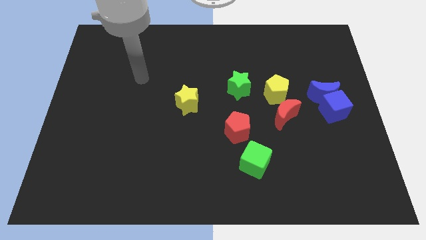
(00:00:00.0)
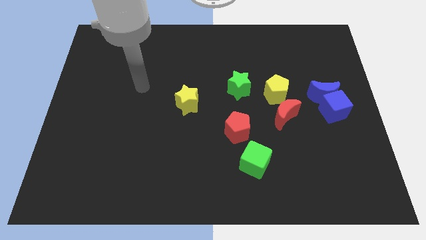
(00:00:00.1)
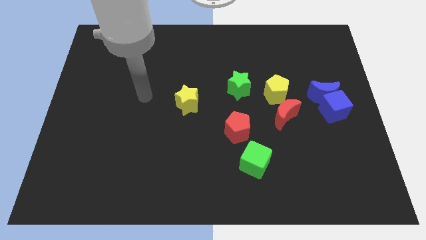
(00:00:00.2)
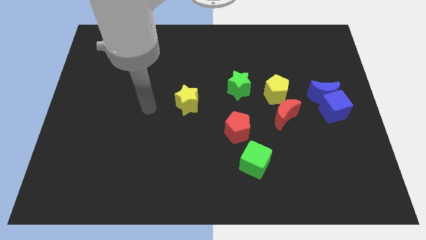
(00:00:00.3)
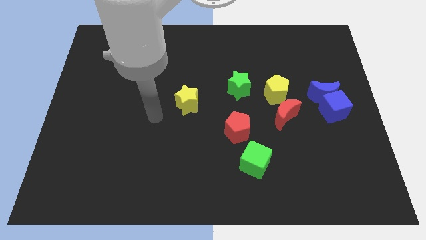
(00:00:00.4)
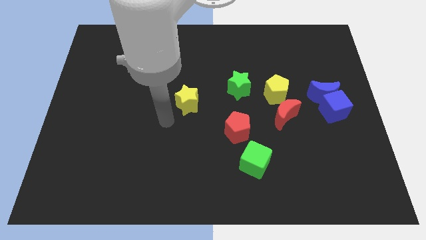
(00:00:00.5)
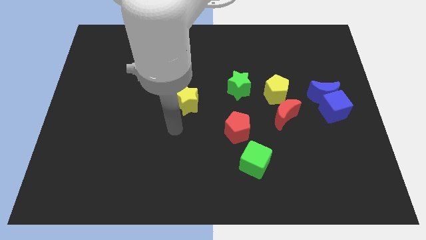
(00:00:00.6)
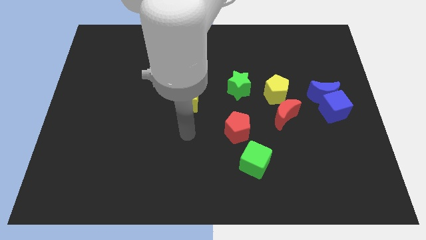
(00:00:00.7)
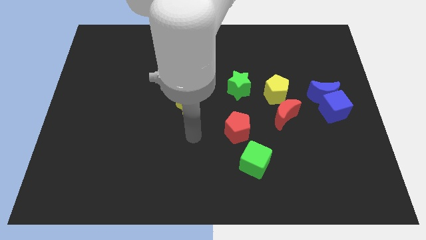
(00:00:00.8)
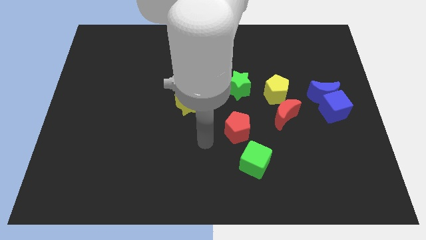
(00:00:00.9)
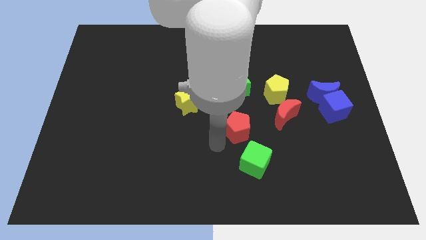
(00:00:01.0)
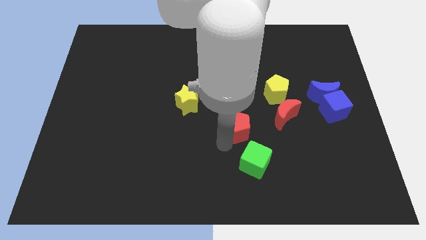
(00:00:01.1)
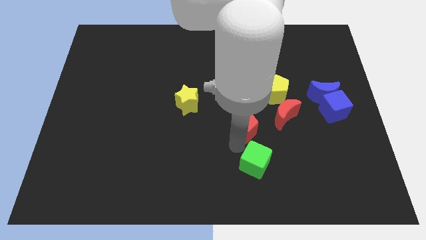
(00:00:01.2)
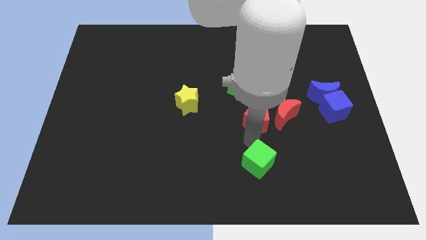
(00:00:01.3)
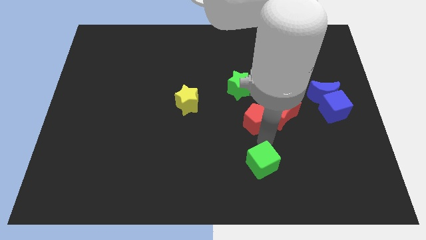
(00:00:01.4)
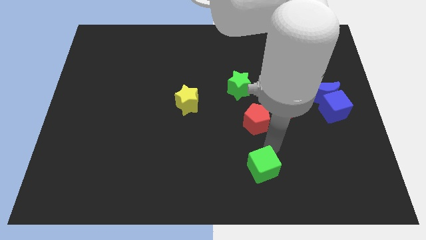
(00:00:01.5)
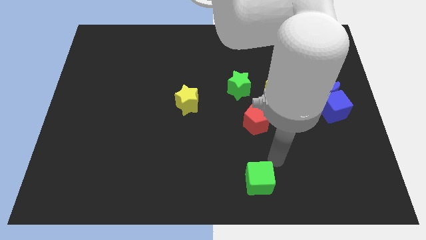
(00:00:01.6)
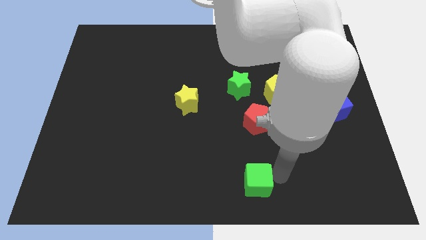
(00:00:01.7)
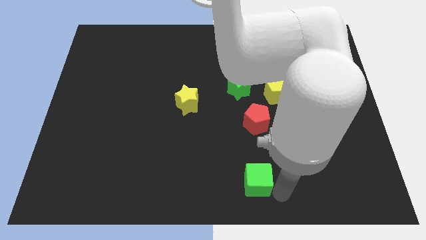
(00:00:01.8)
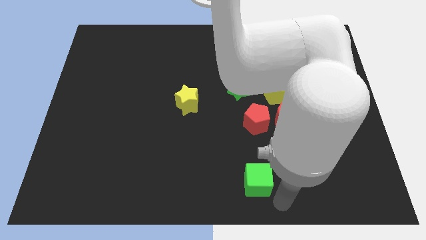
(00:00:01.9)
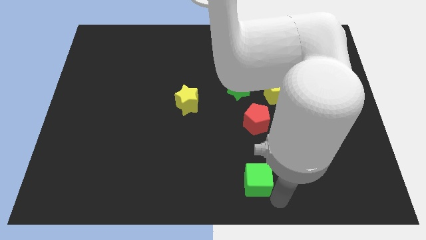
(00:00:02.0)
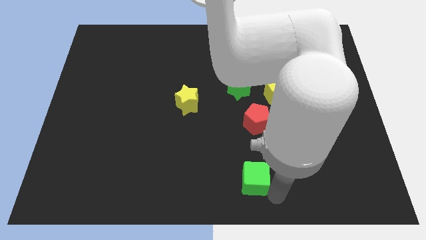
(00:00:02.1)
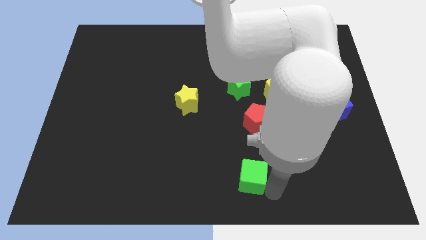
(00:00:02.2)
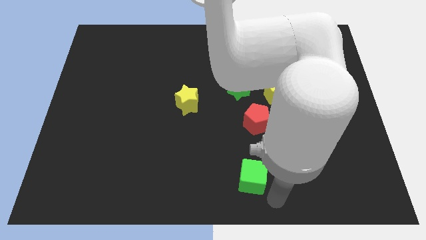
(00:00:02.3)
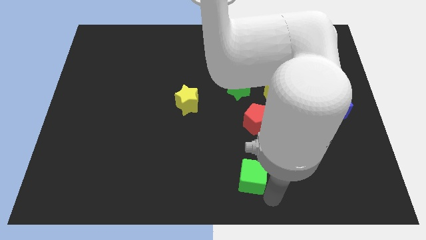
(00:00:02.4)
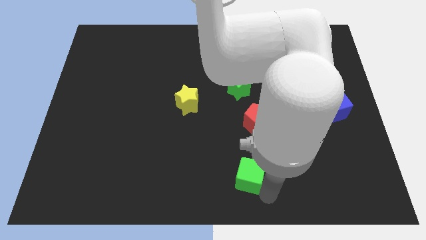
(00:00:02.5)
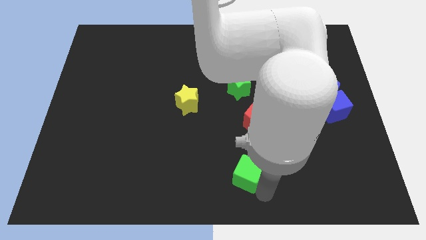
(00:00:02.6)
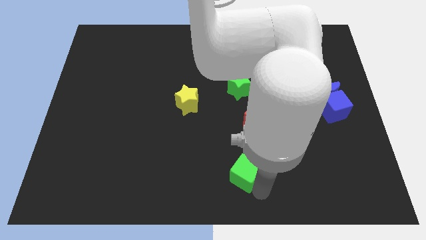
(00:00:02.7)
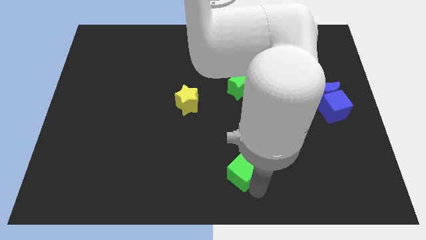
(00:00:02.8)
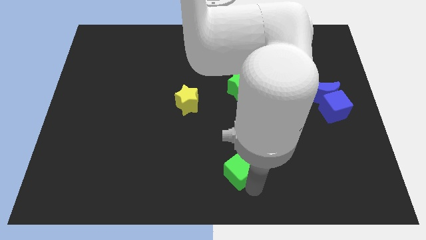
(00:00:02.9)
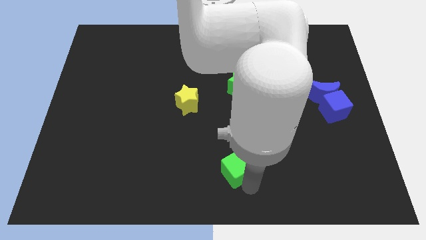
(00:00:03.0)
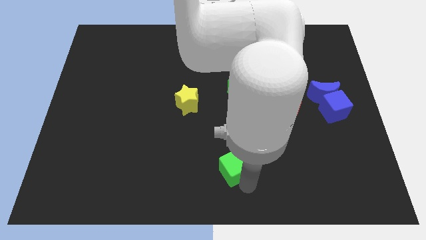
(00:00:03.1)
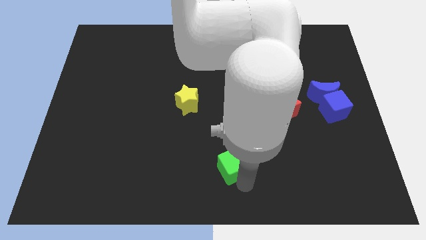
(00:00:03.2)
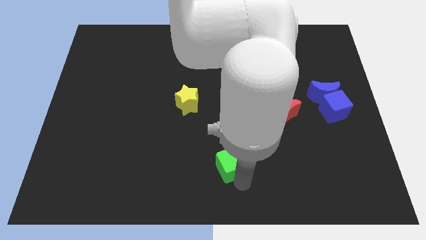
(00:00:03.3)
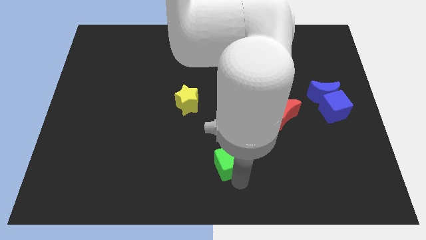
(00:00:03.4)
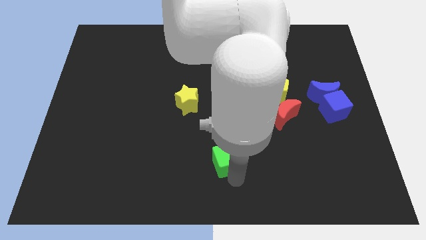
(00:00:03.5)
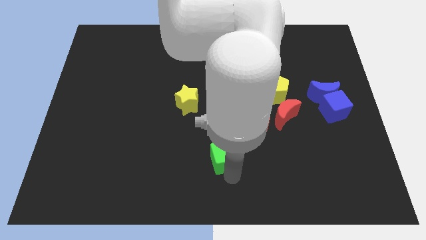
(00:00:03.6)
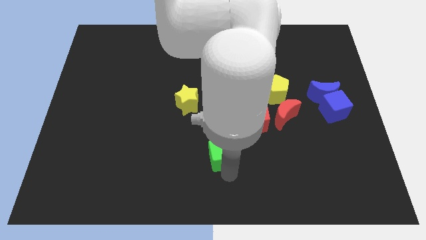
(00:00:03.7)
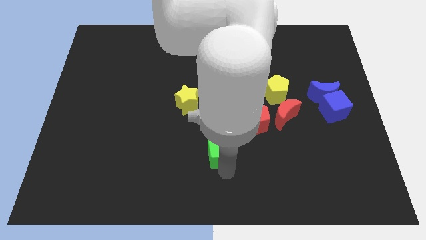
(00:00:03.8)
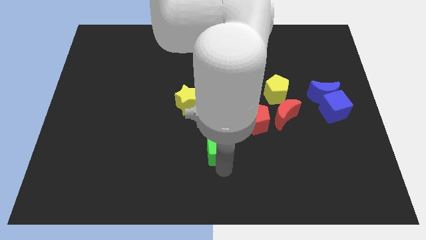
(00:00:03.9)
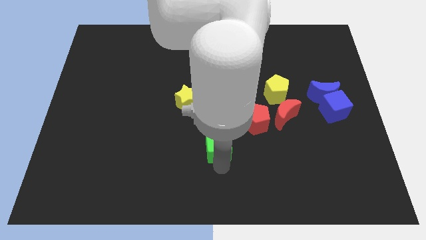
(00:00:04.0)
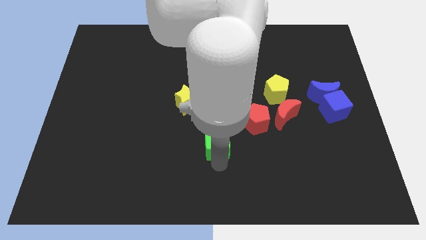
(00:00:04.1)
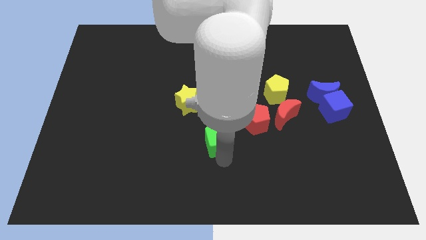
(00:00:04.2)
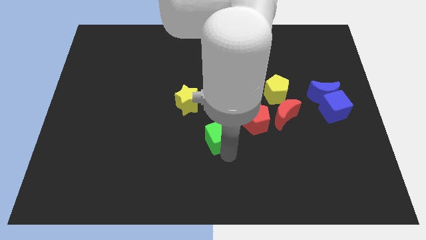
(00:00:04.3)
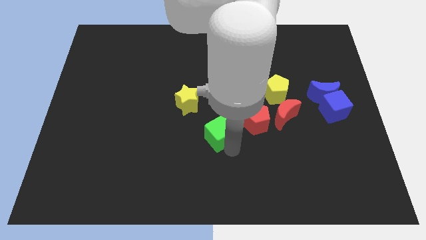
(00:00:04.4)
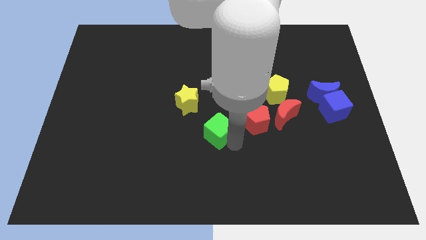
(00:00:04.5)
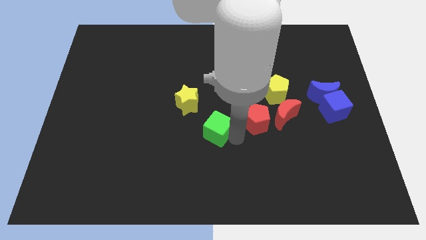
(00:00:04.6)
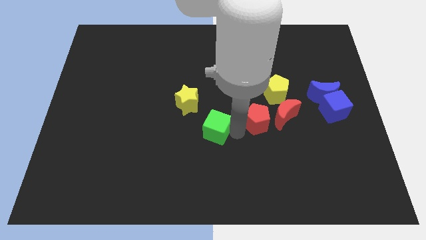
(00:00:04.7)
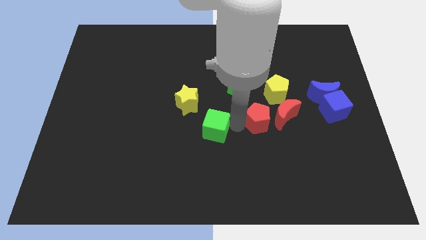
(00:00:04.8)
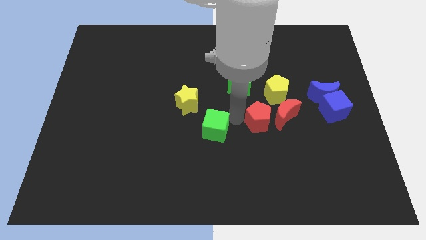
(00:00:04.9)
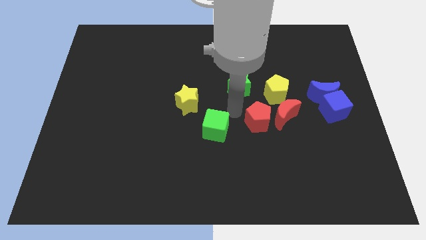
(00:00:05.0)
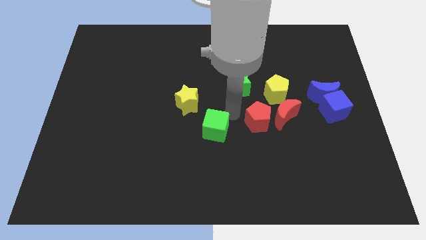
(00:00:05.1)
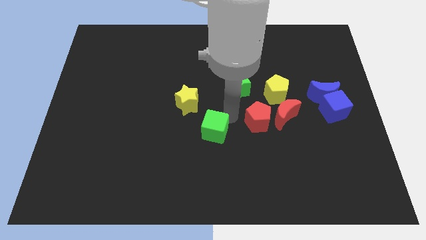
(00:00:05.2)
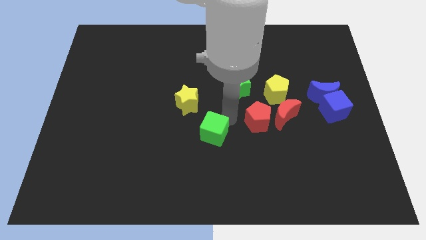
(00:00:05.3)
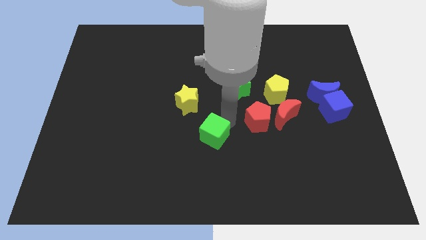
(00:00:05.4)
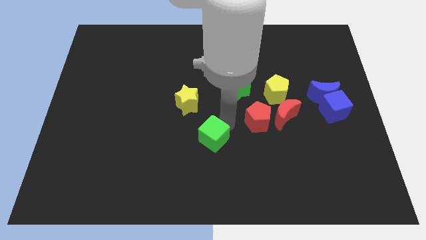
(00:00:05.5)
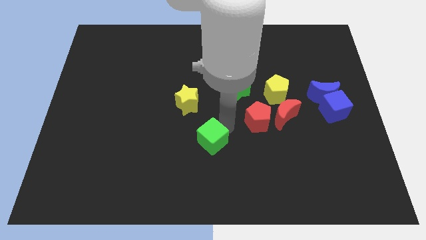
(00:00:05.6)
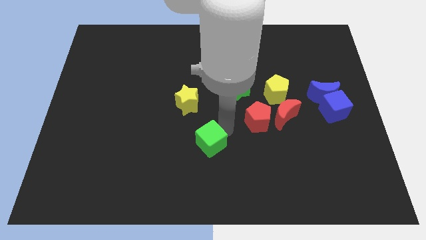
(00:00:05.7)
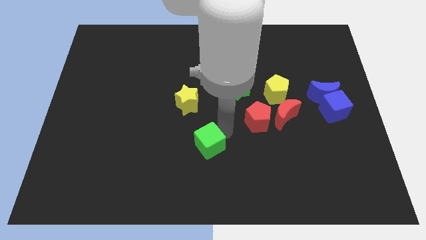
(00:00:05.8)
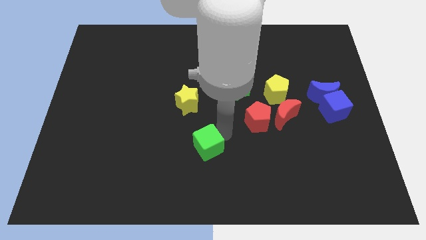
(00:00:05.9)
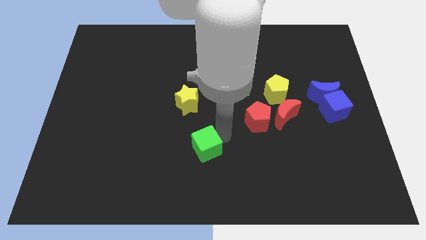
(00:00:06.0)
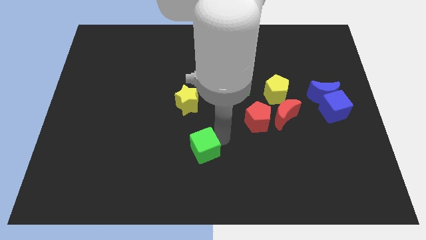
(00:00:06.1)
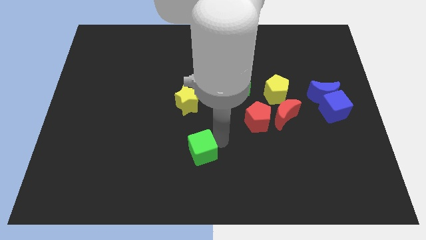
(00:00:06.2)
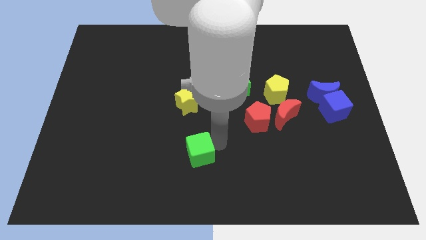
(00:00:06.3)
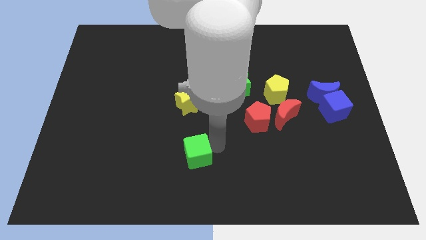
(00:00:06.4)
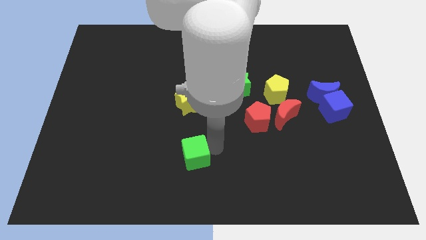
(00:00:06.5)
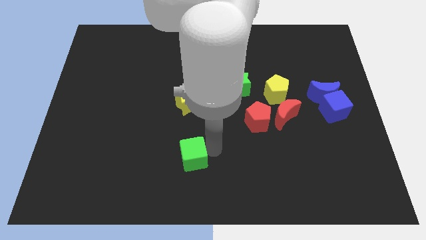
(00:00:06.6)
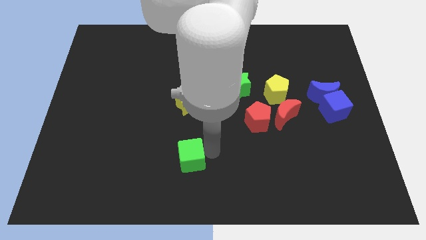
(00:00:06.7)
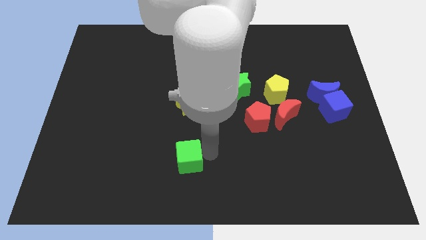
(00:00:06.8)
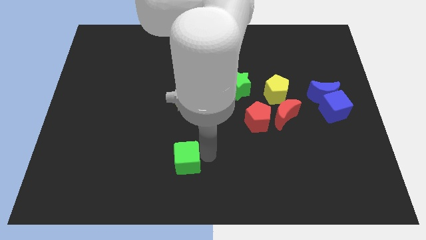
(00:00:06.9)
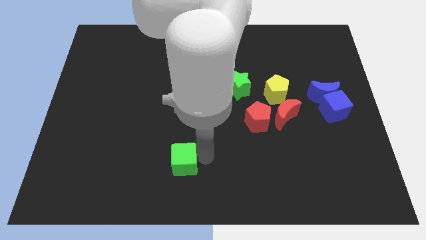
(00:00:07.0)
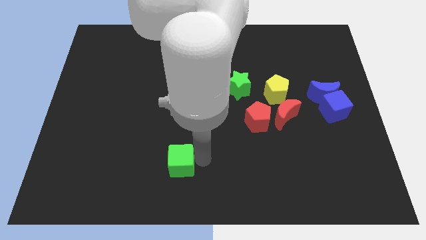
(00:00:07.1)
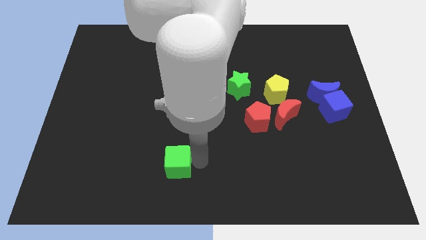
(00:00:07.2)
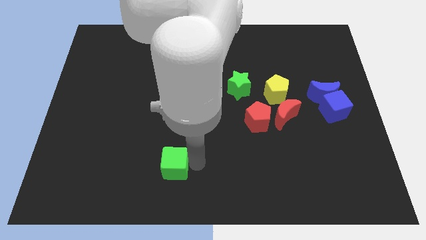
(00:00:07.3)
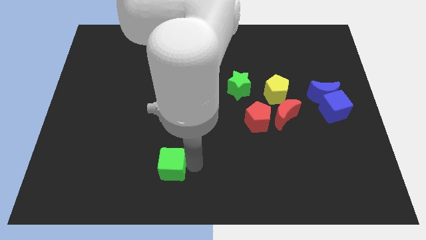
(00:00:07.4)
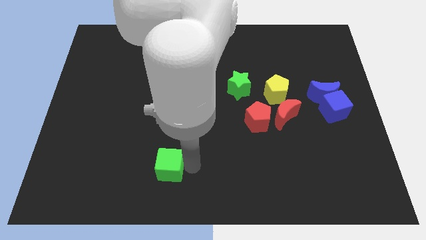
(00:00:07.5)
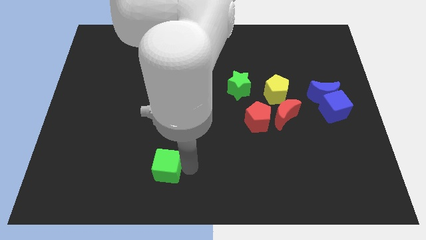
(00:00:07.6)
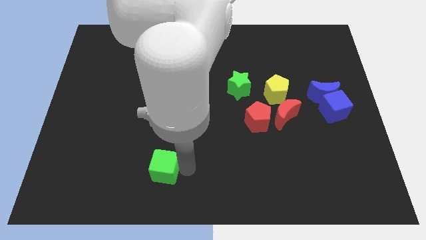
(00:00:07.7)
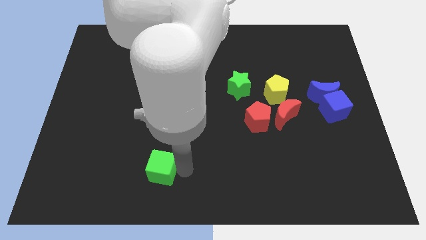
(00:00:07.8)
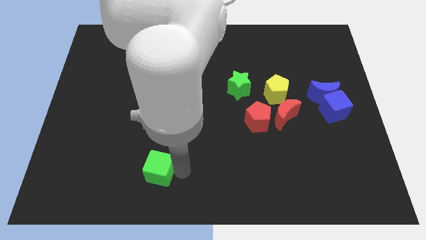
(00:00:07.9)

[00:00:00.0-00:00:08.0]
move the green cube left
